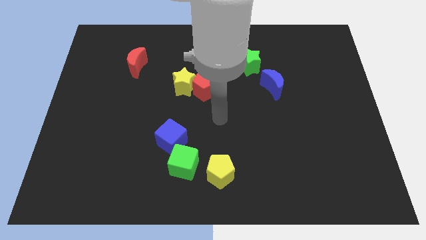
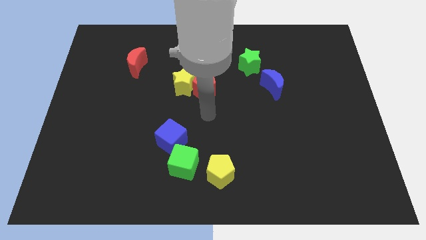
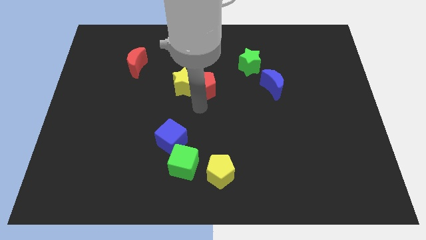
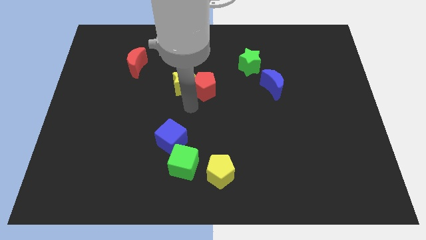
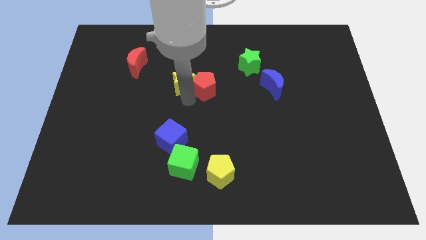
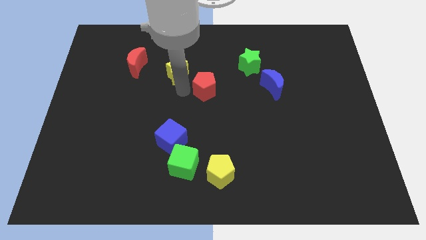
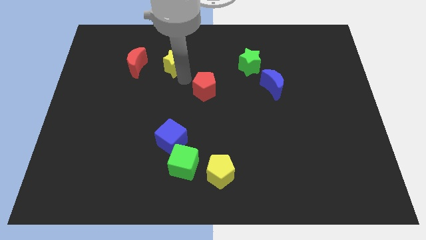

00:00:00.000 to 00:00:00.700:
pull the red pentagon apart from the yellow star

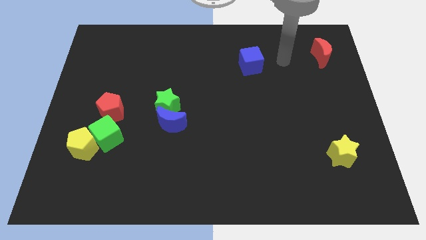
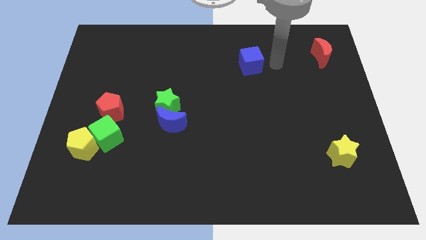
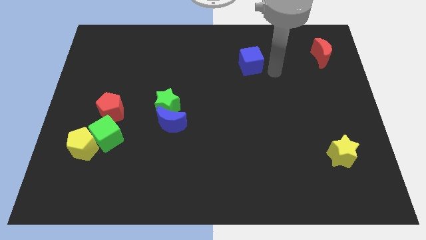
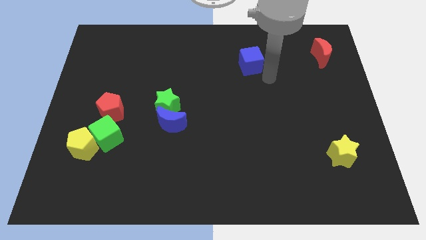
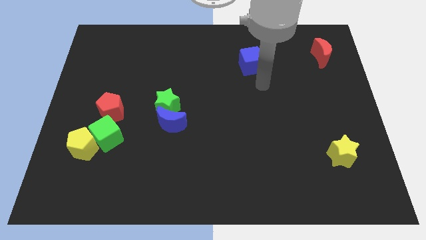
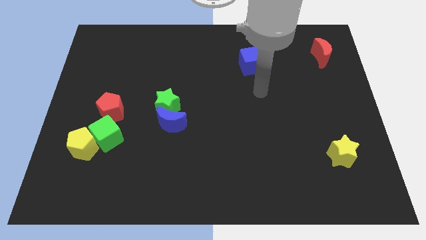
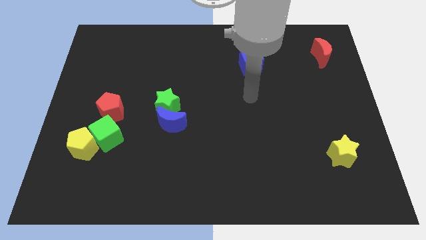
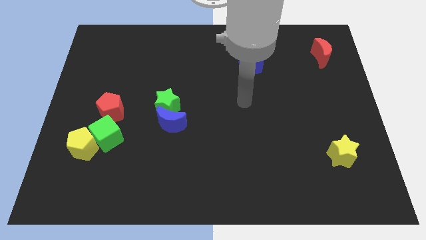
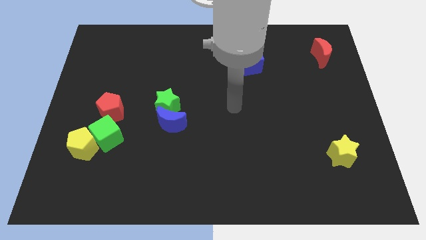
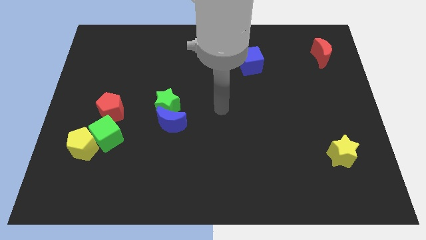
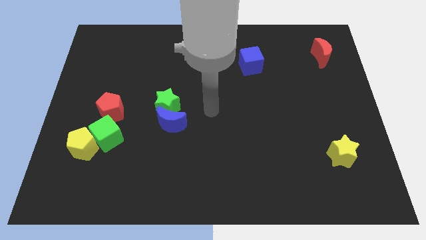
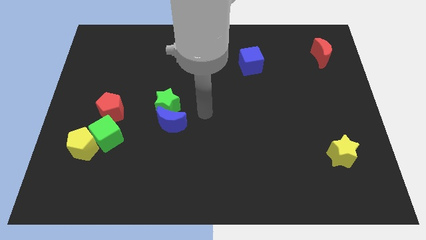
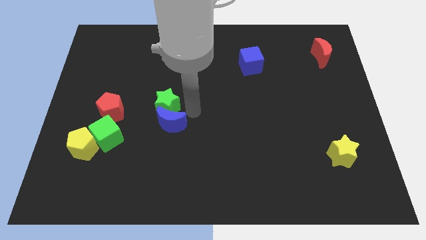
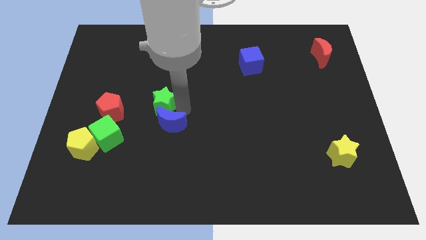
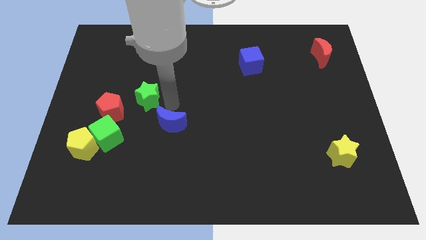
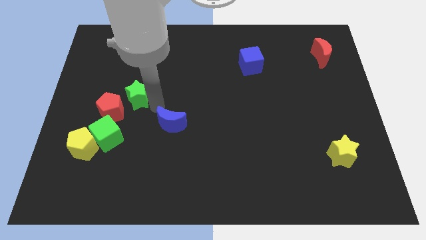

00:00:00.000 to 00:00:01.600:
move the blue moon away from the green star

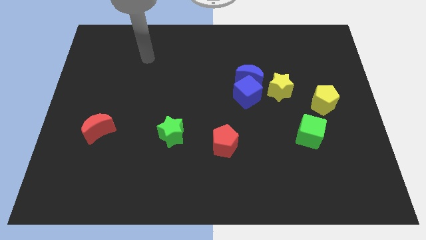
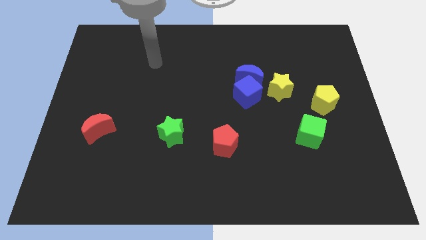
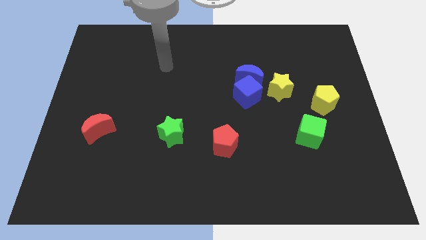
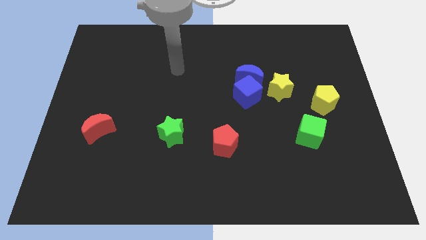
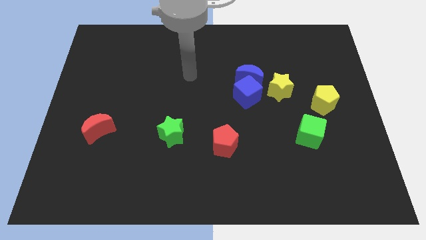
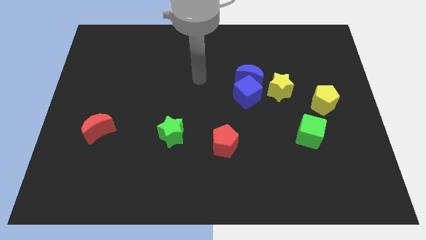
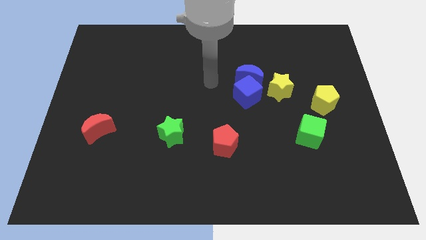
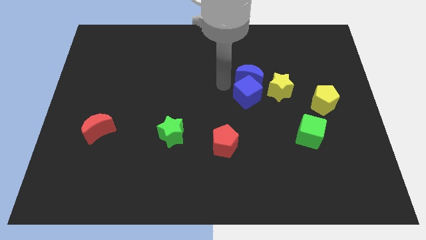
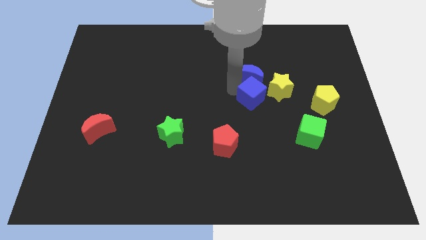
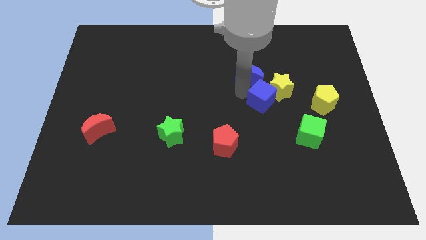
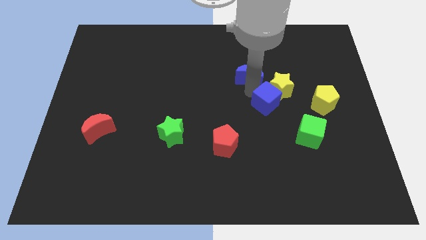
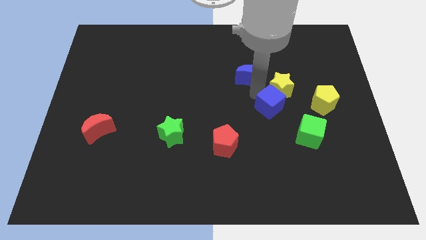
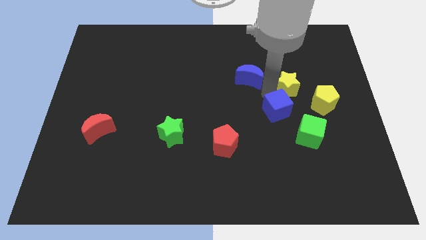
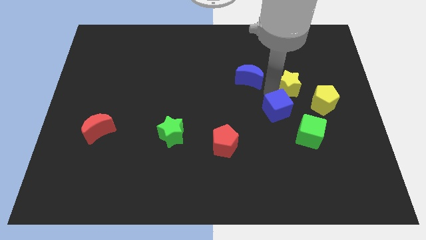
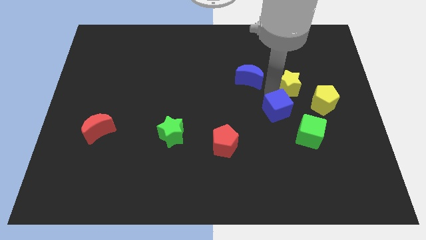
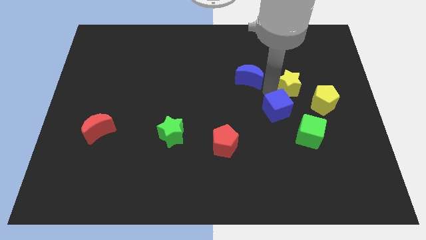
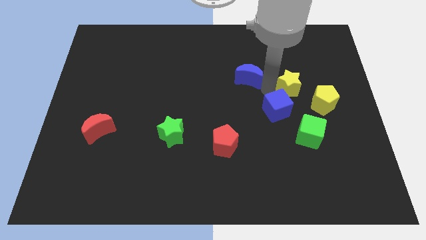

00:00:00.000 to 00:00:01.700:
move the blue moon away from the blue cube and yellow star

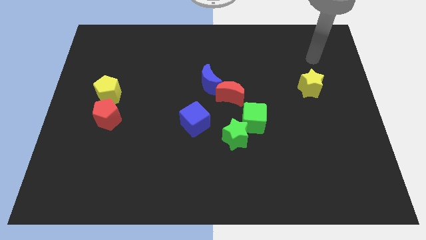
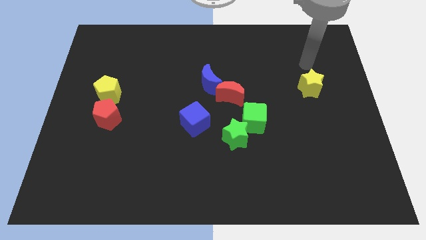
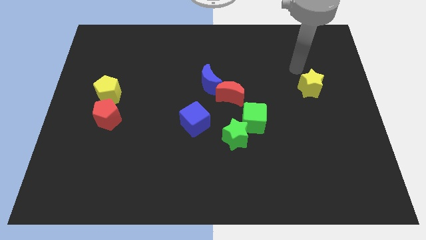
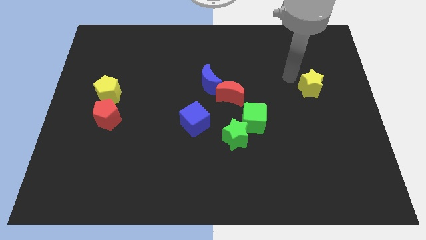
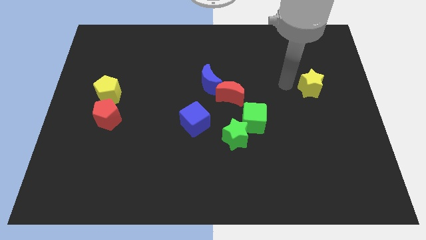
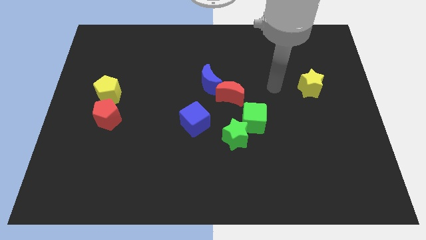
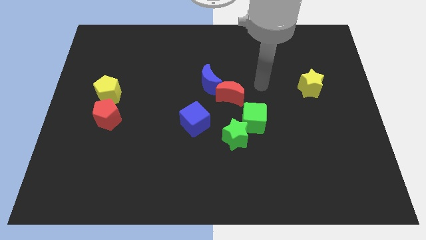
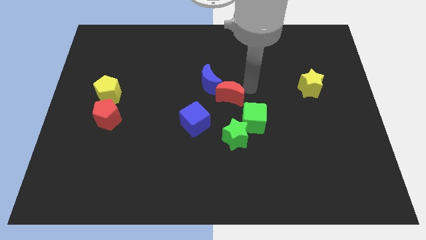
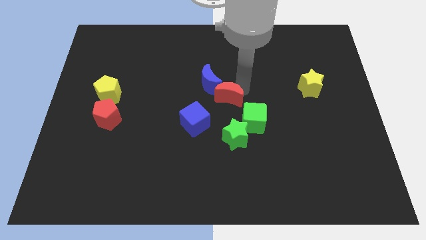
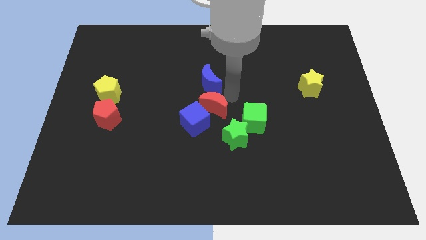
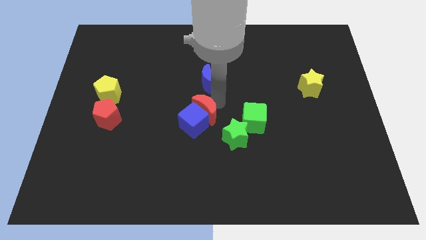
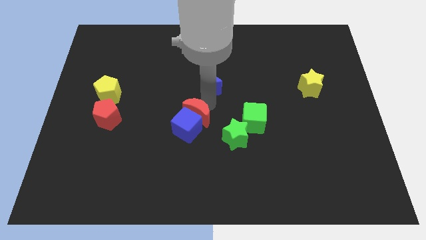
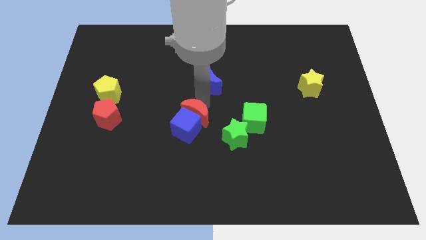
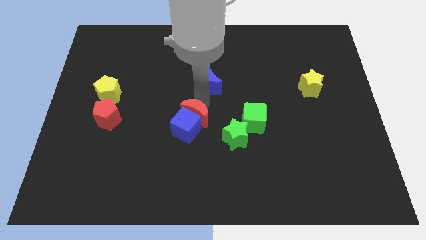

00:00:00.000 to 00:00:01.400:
separate the blue moon from the red moon

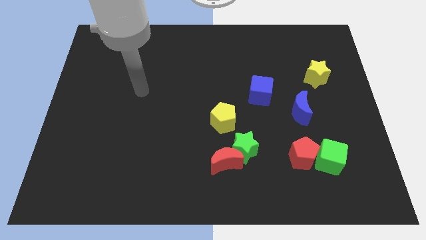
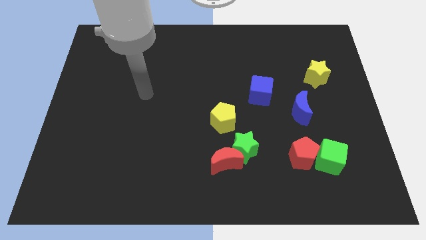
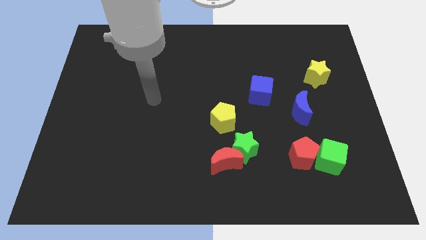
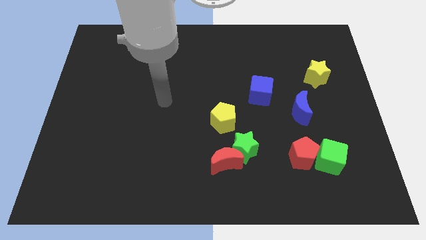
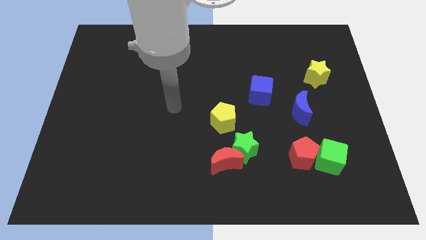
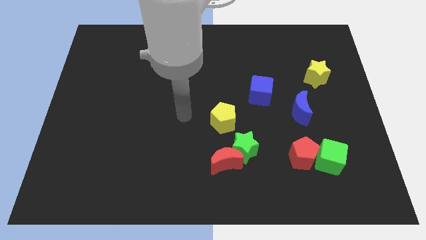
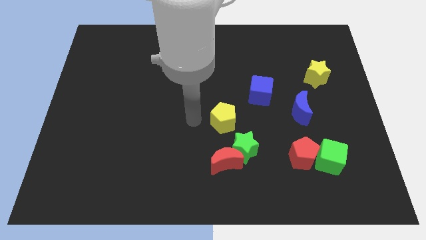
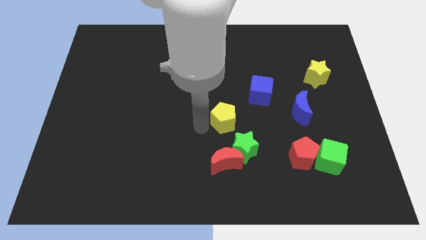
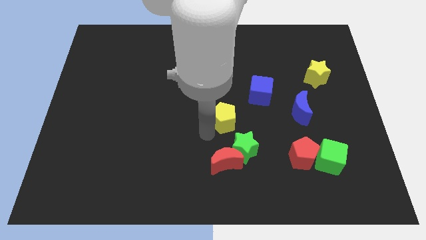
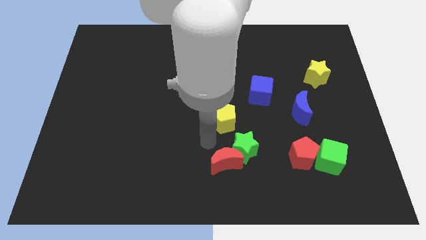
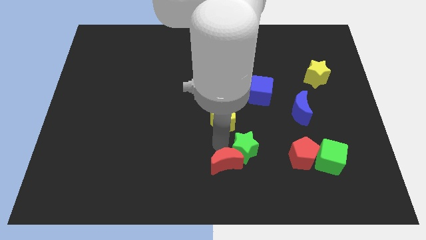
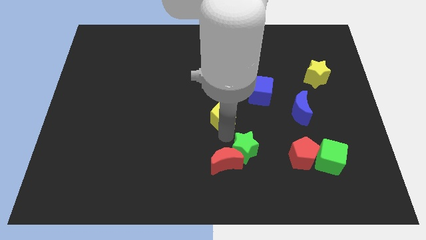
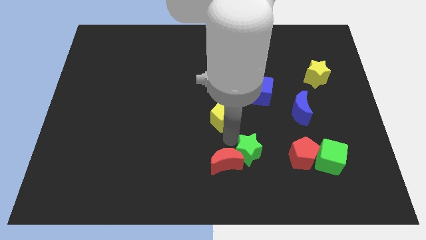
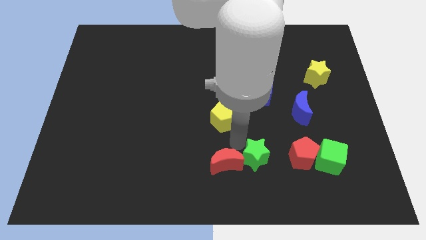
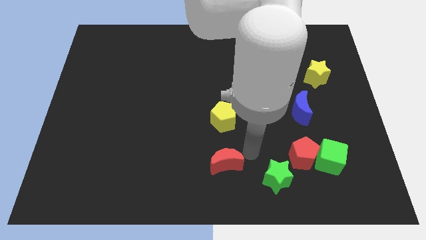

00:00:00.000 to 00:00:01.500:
pull the red moon apart from the green star

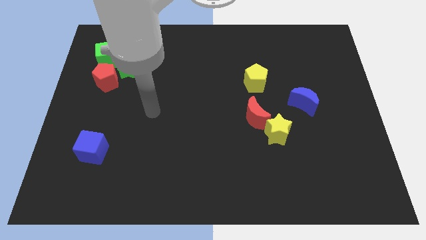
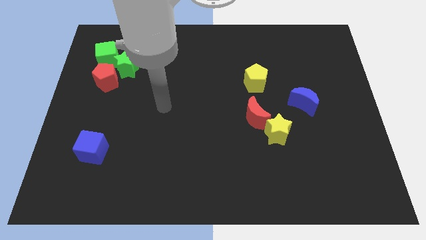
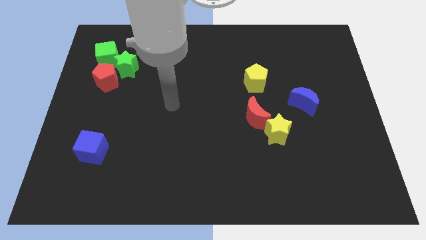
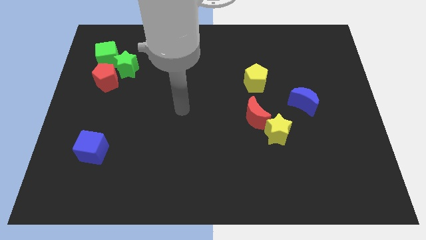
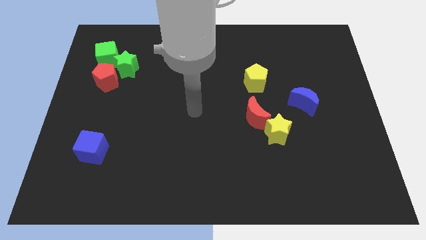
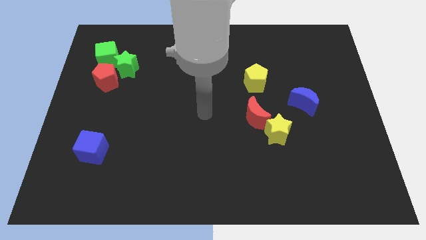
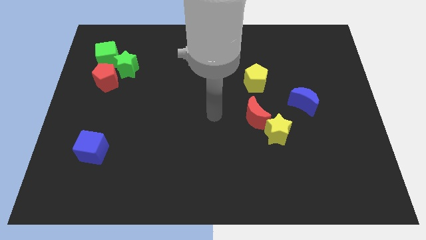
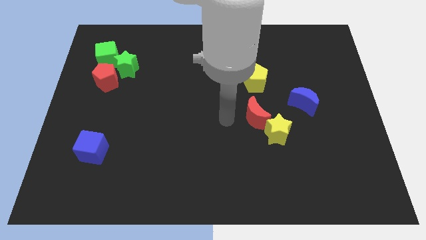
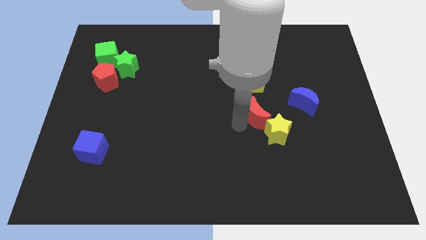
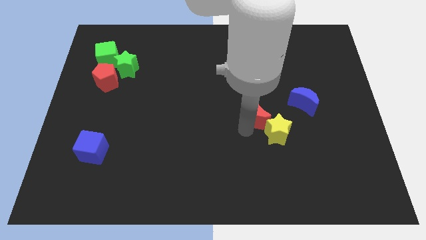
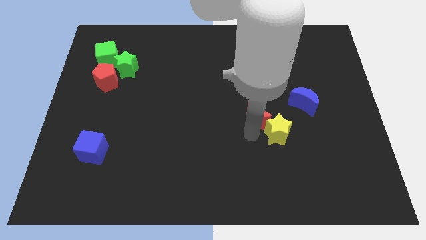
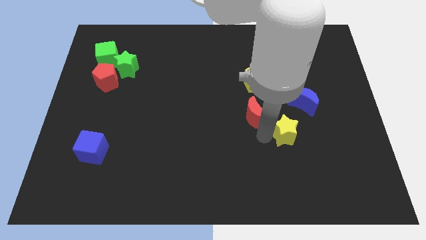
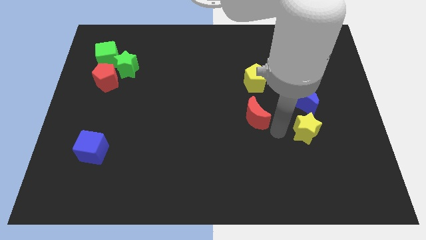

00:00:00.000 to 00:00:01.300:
pull the red moon apart from the yellow star

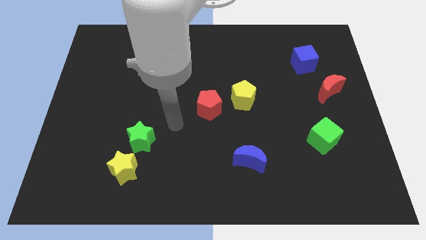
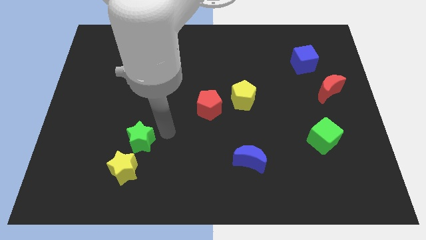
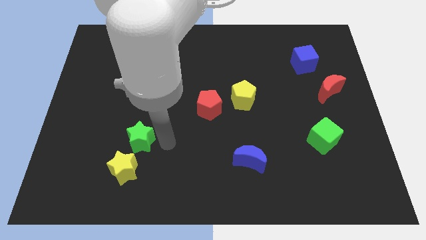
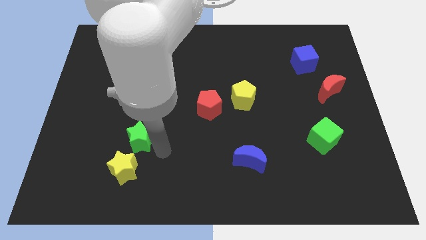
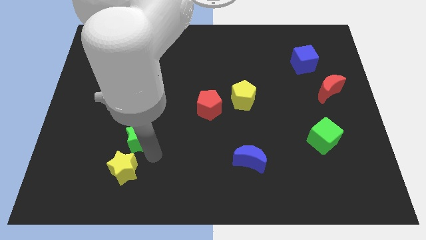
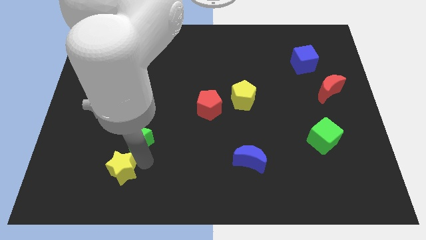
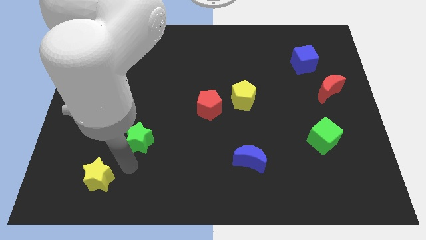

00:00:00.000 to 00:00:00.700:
move the green star away from the yellow star

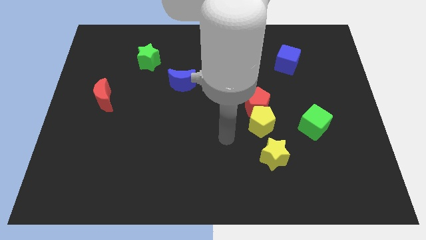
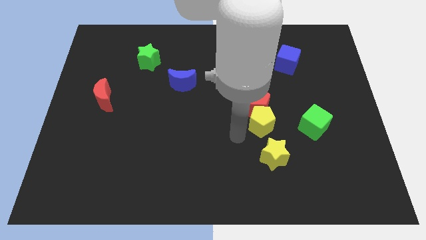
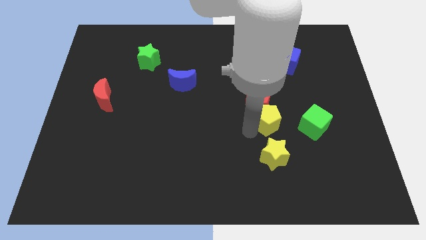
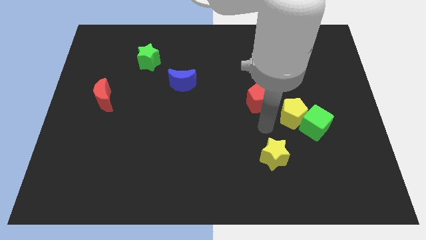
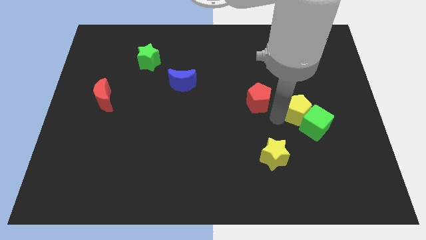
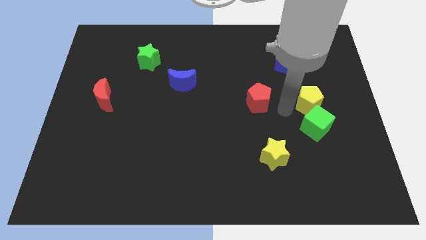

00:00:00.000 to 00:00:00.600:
move the red pentagon away from the yellow pentagon

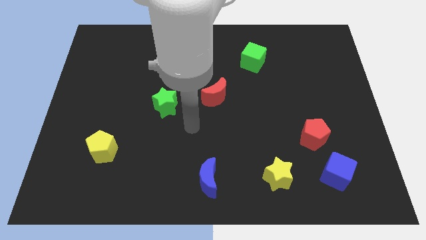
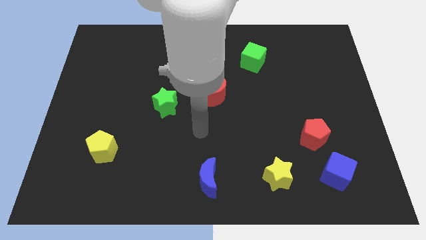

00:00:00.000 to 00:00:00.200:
move the red pentagon away from the blue cube
